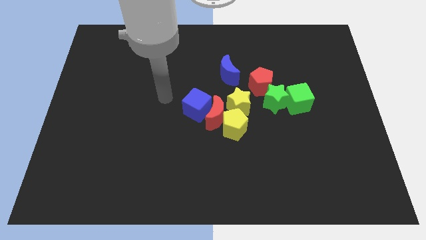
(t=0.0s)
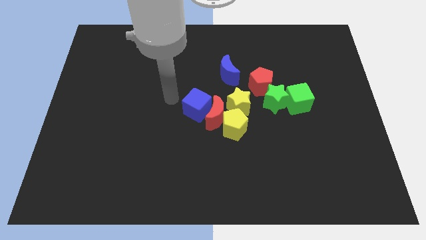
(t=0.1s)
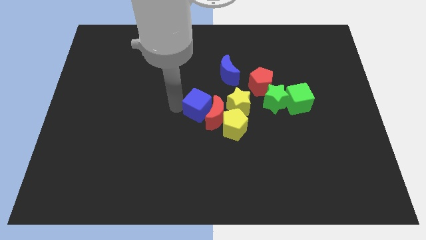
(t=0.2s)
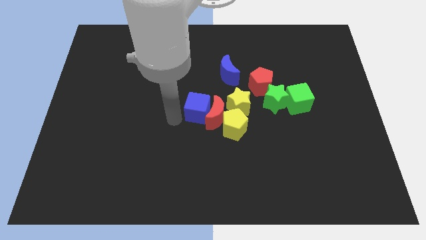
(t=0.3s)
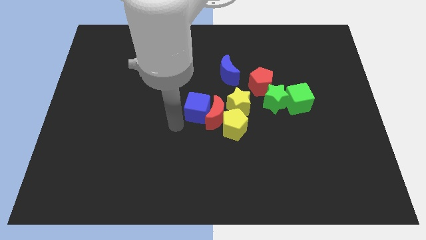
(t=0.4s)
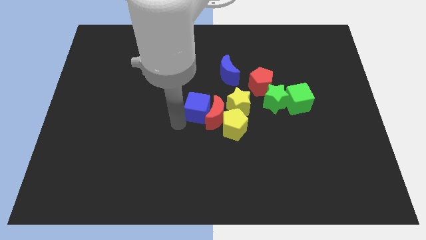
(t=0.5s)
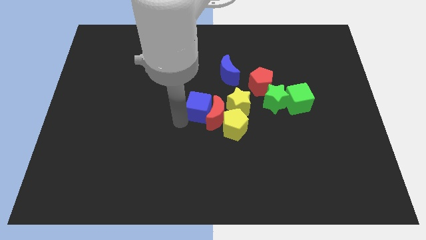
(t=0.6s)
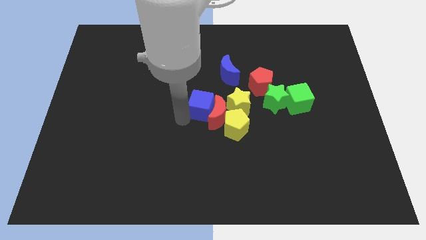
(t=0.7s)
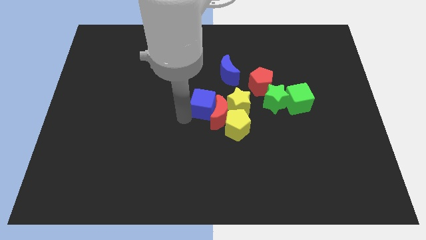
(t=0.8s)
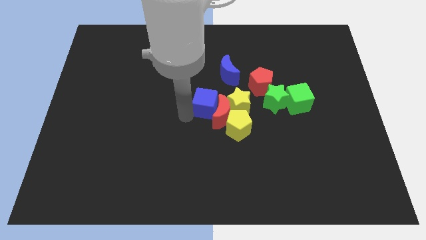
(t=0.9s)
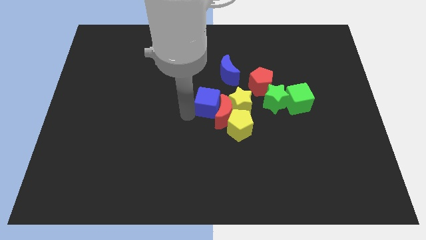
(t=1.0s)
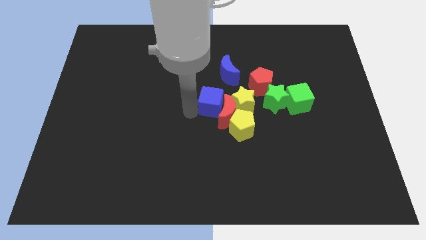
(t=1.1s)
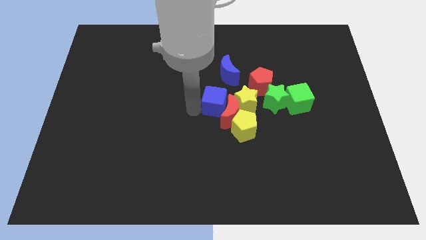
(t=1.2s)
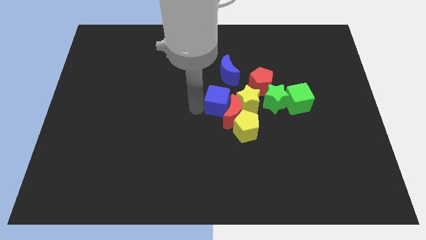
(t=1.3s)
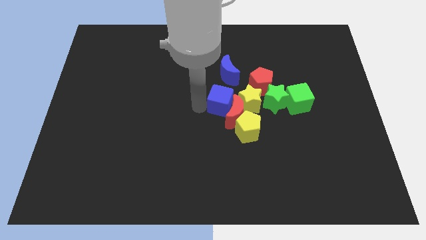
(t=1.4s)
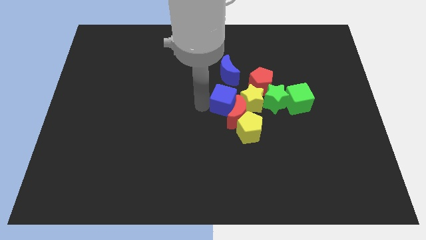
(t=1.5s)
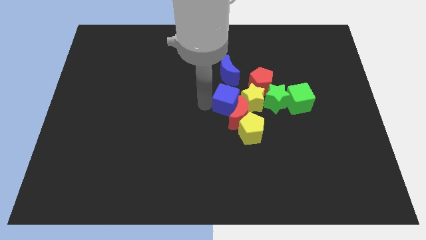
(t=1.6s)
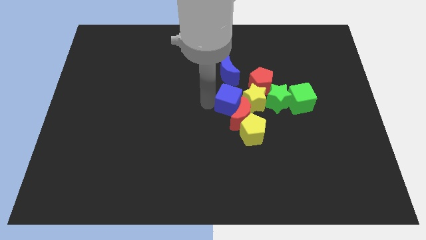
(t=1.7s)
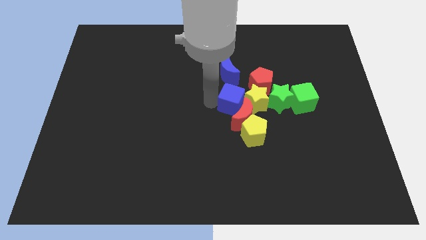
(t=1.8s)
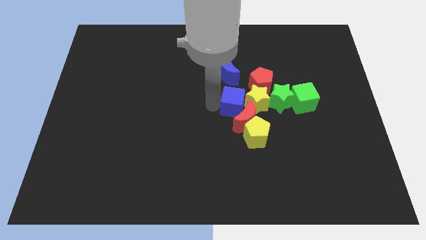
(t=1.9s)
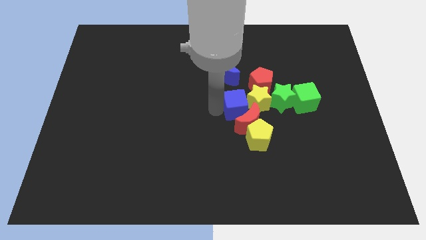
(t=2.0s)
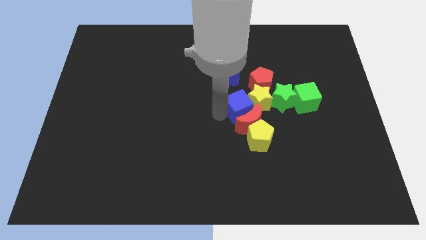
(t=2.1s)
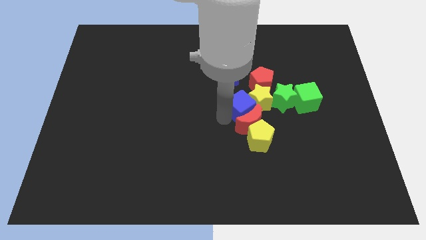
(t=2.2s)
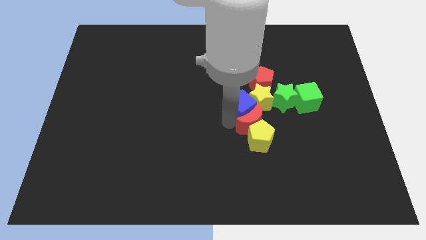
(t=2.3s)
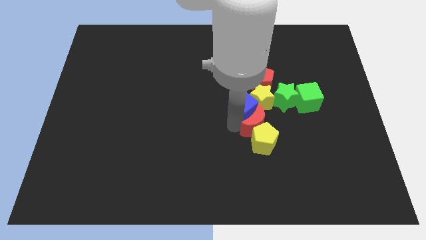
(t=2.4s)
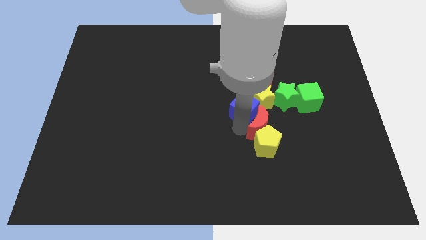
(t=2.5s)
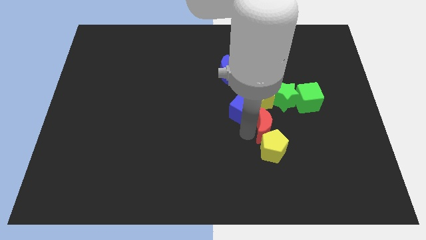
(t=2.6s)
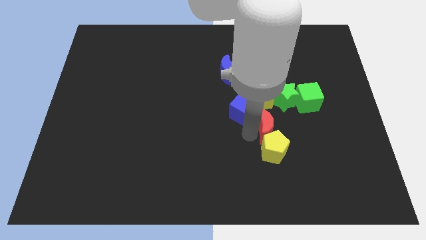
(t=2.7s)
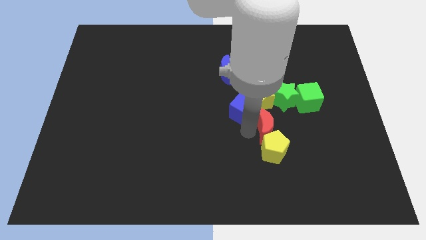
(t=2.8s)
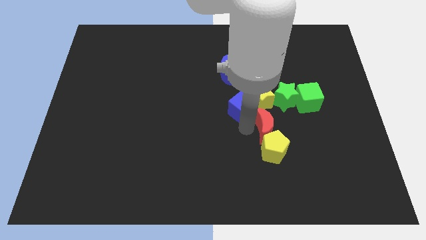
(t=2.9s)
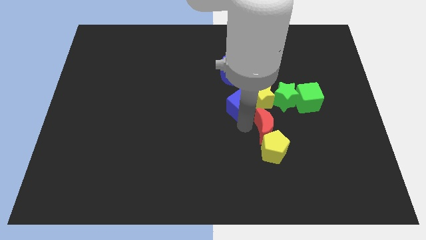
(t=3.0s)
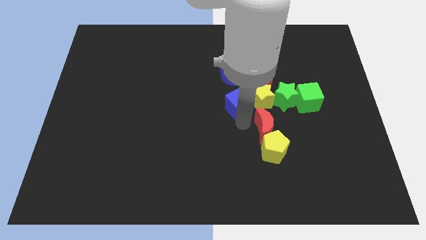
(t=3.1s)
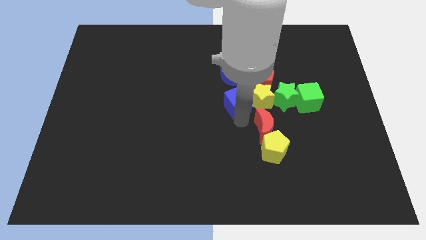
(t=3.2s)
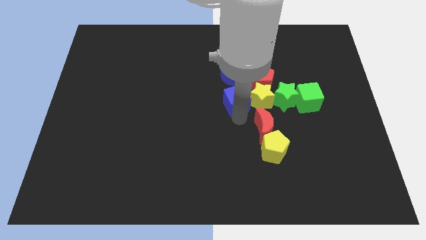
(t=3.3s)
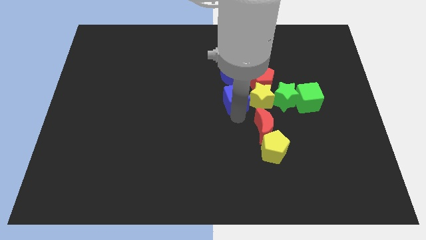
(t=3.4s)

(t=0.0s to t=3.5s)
push the blue cube up and to the right a bit

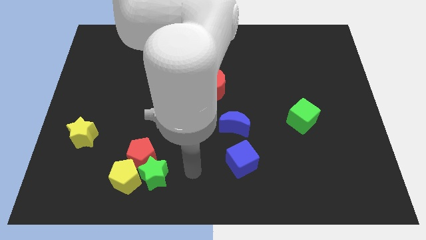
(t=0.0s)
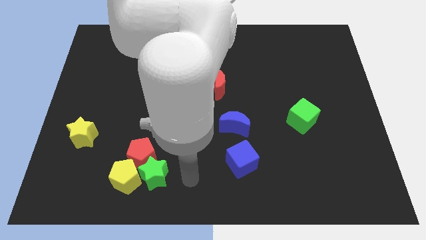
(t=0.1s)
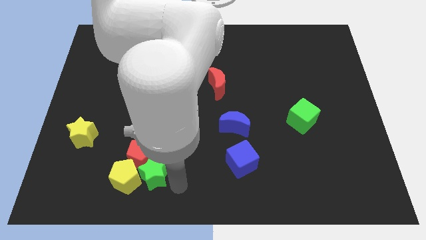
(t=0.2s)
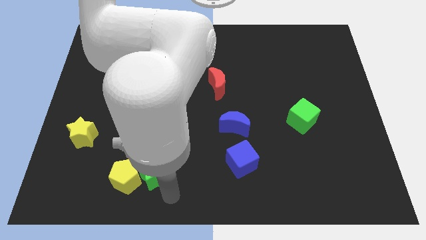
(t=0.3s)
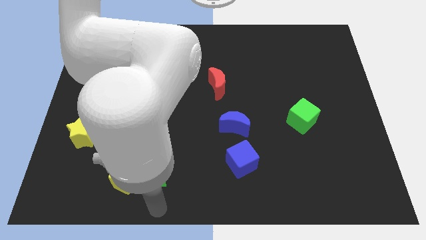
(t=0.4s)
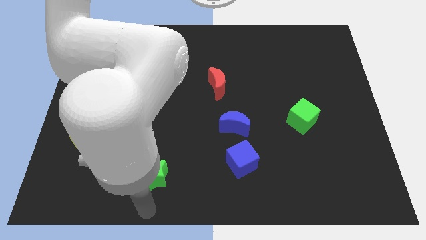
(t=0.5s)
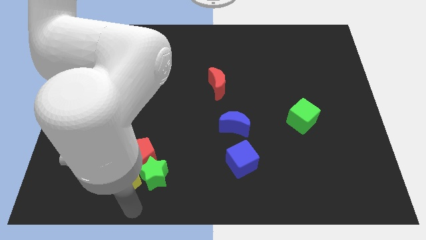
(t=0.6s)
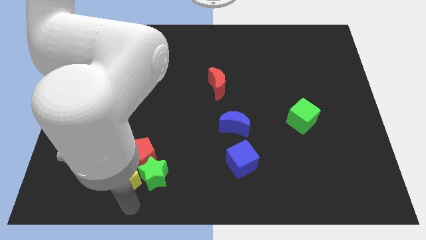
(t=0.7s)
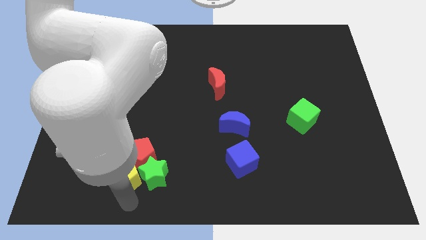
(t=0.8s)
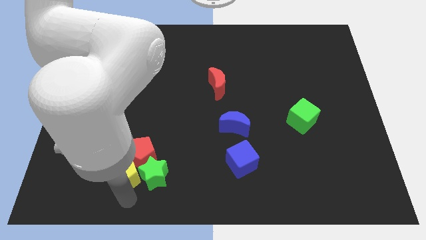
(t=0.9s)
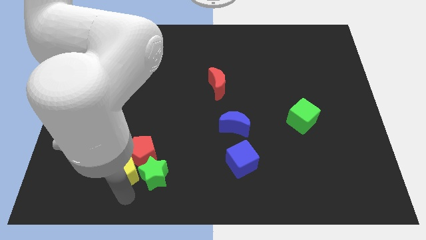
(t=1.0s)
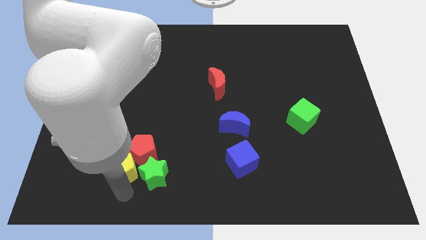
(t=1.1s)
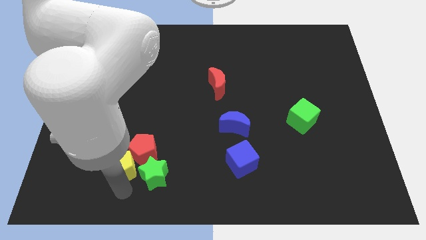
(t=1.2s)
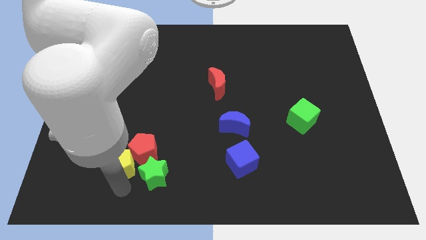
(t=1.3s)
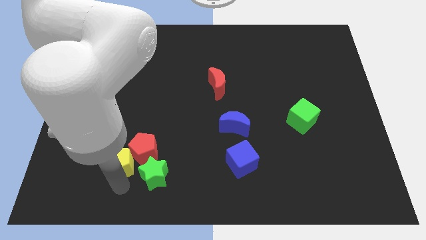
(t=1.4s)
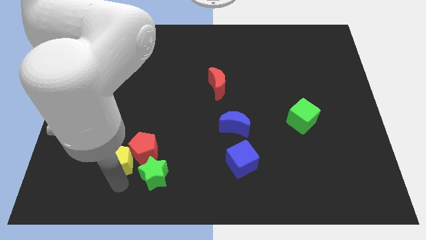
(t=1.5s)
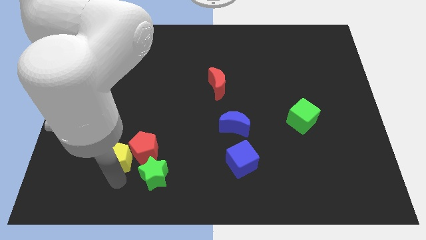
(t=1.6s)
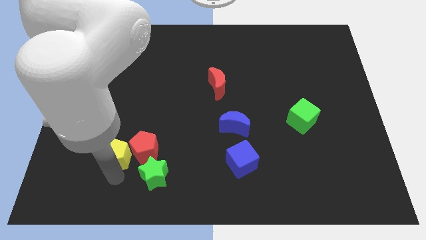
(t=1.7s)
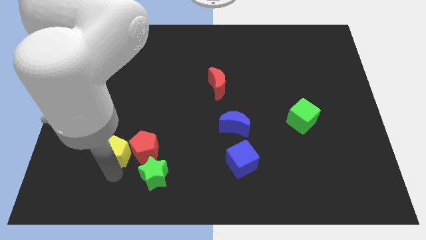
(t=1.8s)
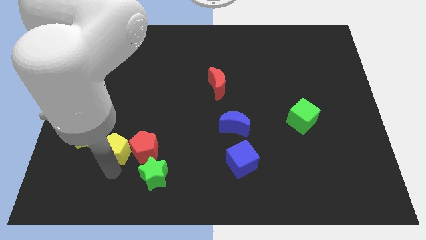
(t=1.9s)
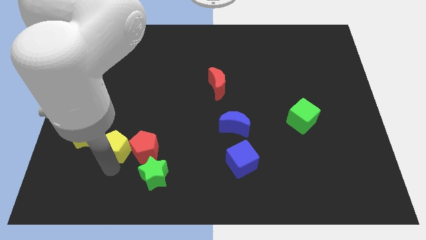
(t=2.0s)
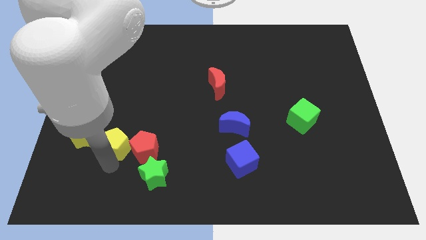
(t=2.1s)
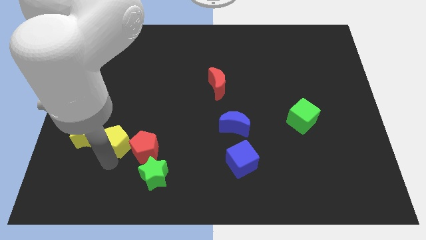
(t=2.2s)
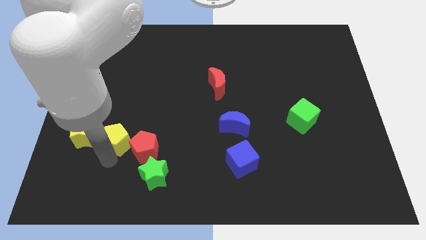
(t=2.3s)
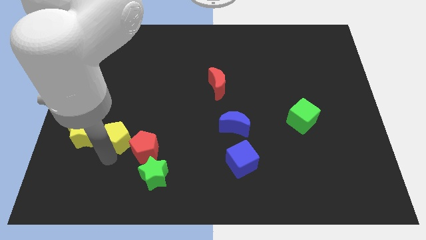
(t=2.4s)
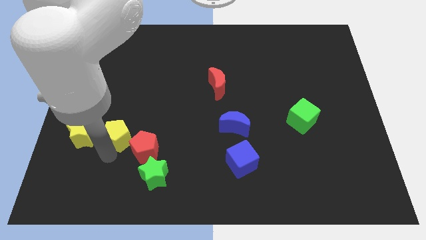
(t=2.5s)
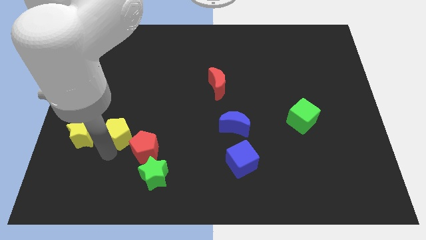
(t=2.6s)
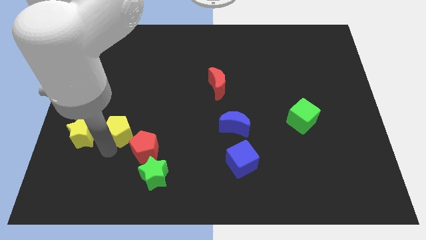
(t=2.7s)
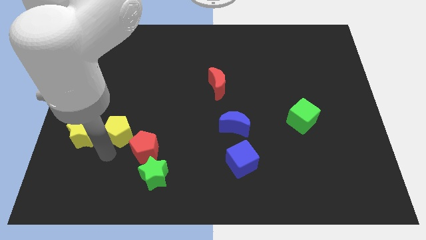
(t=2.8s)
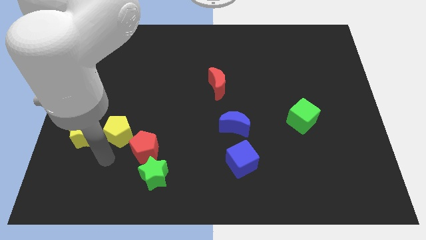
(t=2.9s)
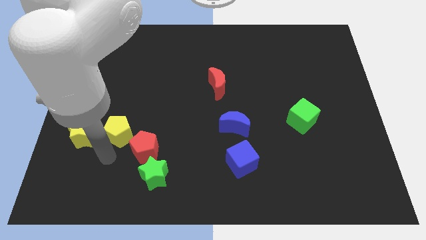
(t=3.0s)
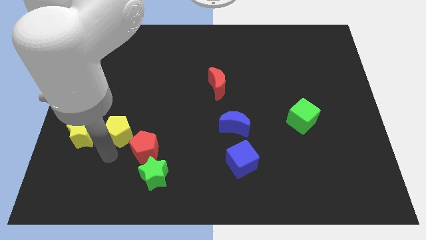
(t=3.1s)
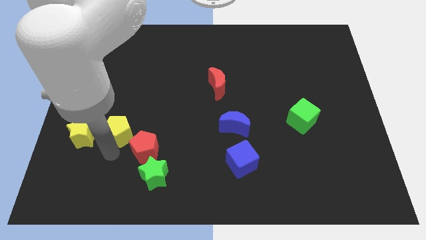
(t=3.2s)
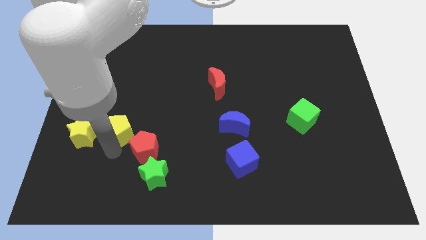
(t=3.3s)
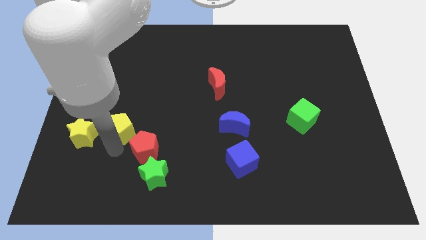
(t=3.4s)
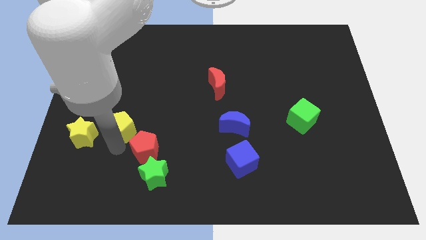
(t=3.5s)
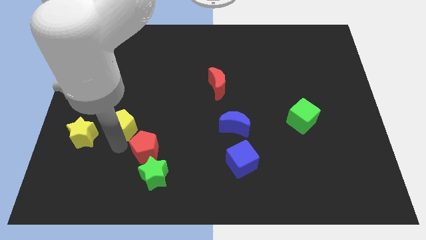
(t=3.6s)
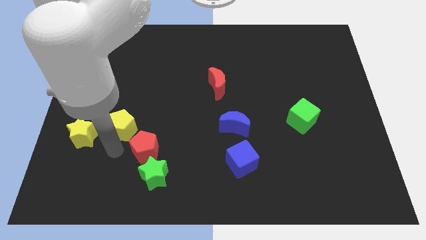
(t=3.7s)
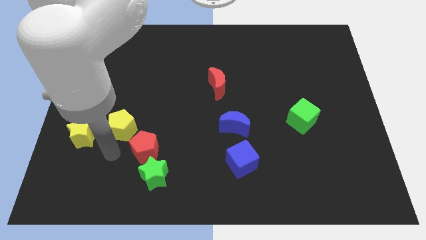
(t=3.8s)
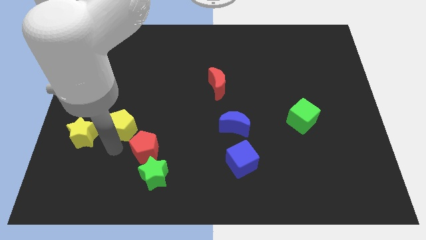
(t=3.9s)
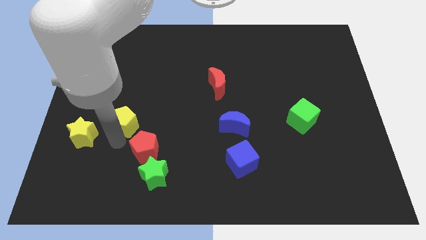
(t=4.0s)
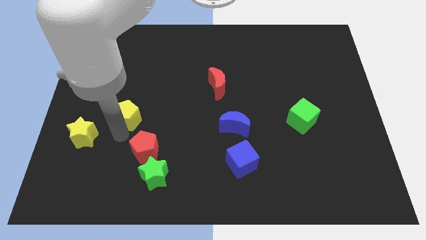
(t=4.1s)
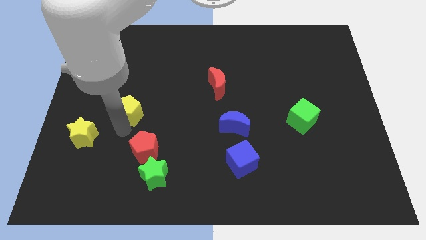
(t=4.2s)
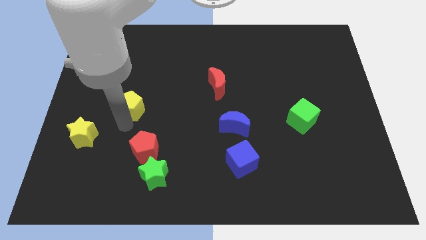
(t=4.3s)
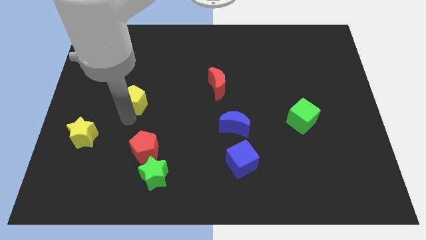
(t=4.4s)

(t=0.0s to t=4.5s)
move the yellow pentagon upwards
